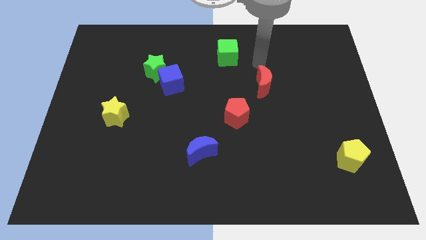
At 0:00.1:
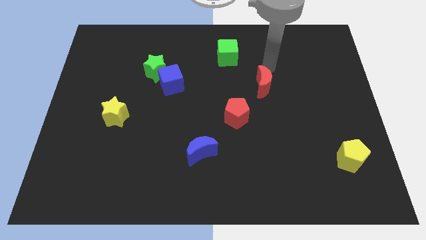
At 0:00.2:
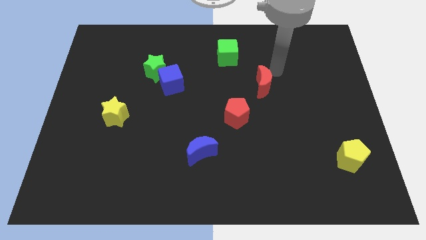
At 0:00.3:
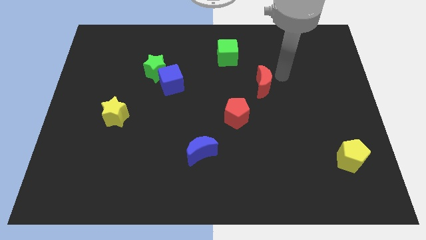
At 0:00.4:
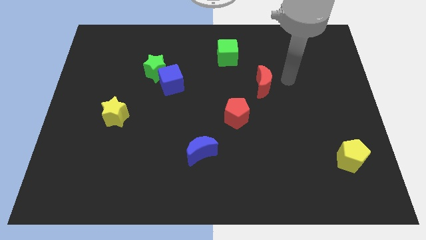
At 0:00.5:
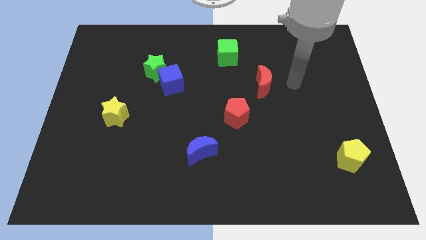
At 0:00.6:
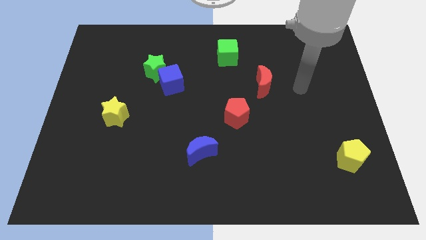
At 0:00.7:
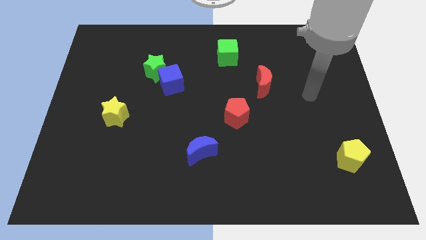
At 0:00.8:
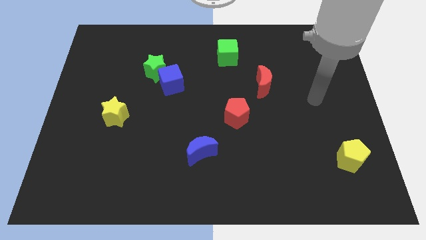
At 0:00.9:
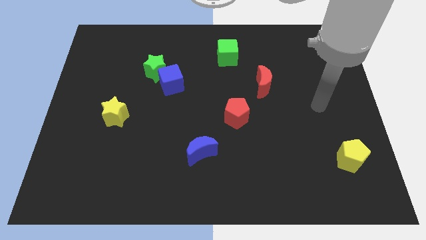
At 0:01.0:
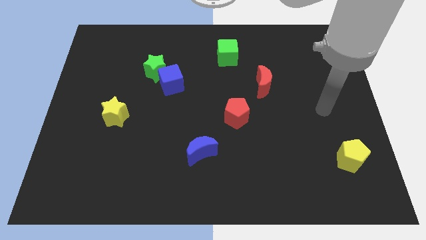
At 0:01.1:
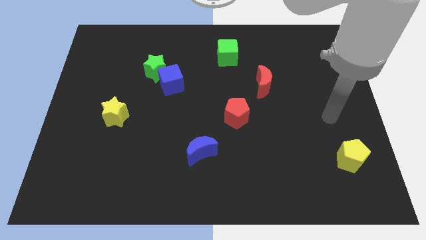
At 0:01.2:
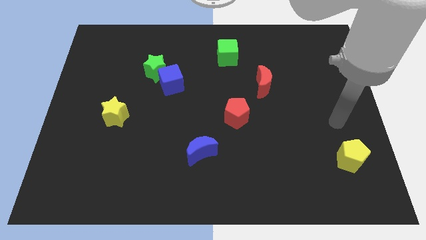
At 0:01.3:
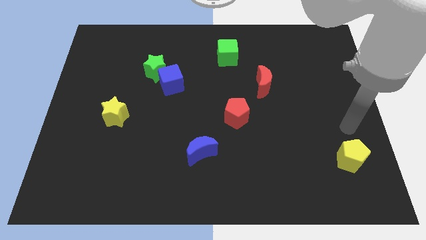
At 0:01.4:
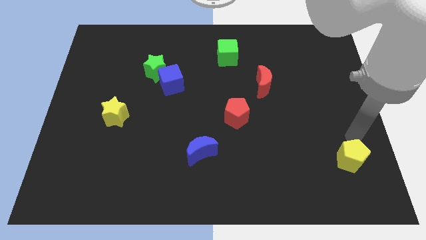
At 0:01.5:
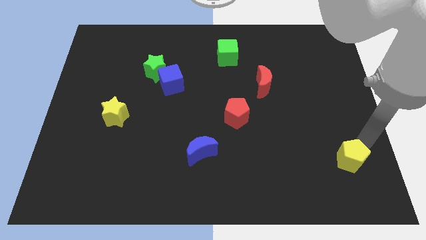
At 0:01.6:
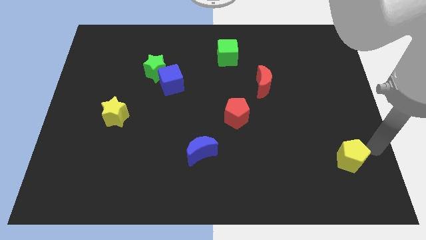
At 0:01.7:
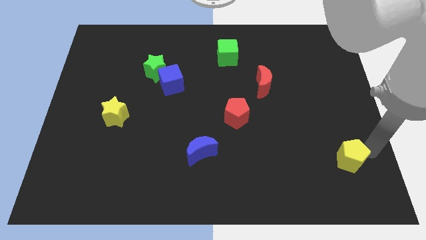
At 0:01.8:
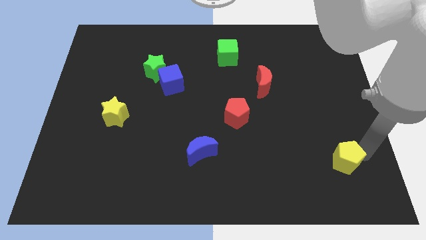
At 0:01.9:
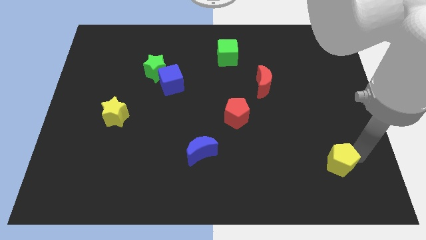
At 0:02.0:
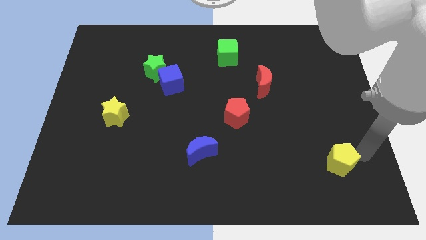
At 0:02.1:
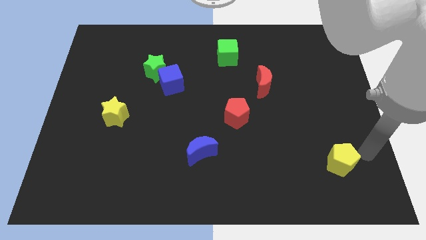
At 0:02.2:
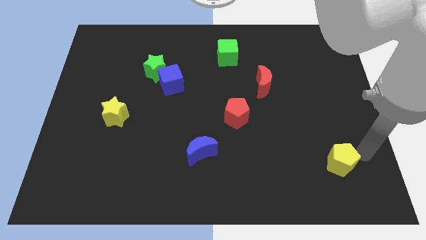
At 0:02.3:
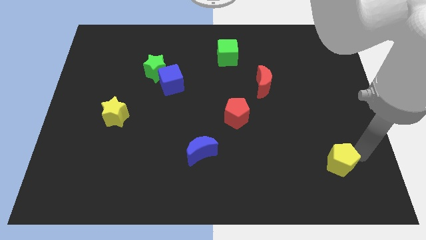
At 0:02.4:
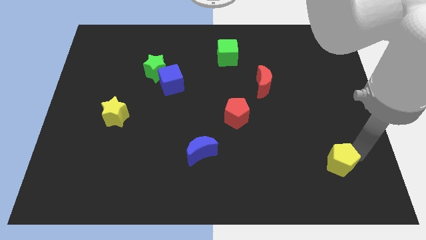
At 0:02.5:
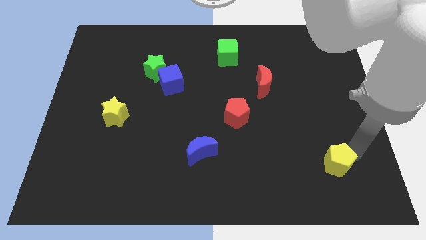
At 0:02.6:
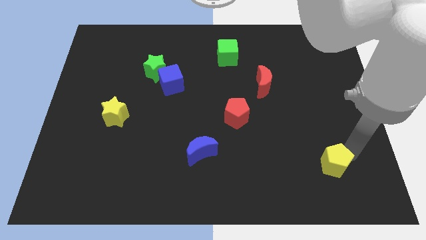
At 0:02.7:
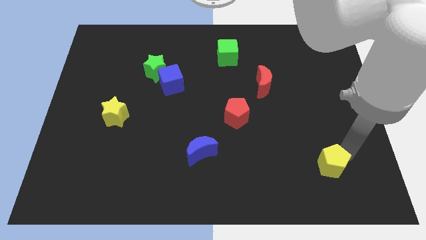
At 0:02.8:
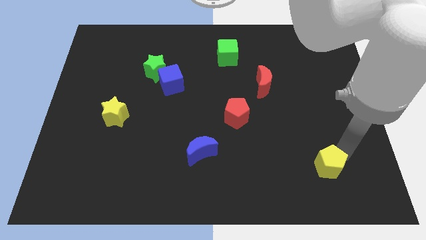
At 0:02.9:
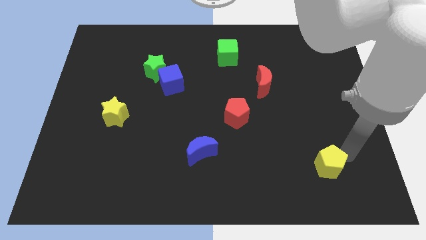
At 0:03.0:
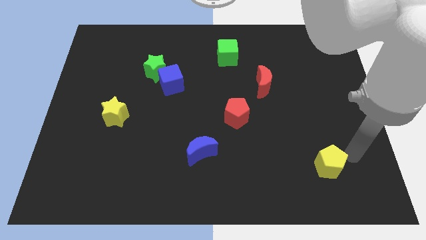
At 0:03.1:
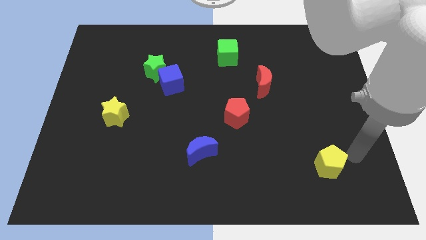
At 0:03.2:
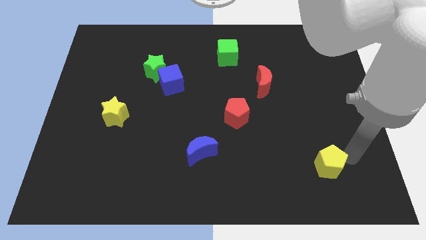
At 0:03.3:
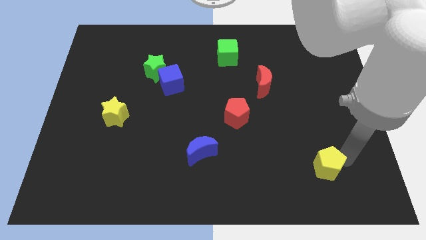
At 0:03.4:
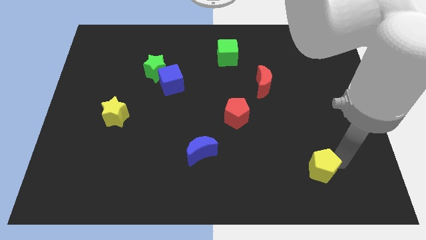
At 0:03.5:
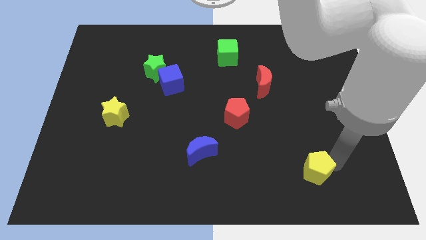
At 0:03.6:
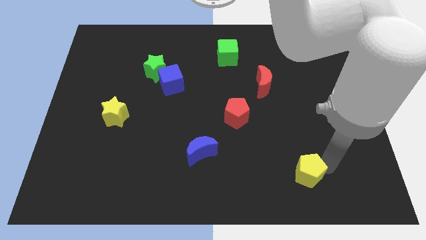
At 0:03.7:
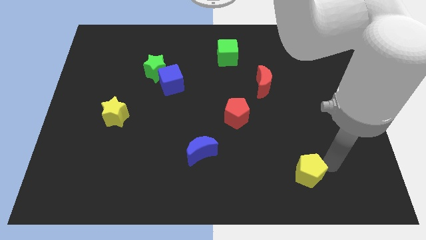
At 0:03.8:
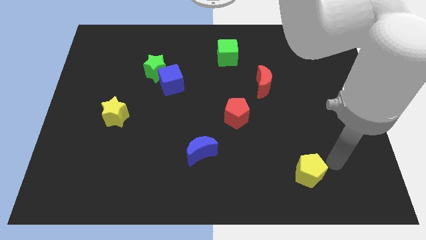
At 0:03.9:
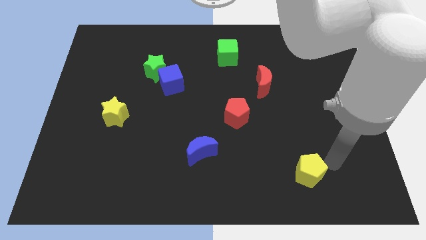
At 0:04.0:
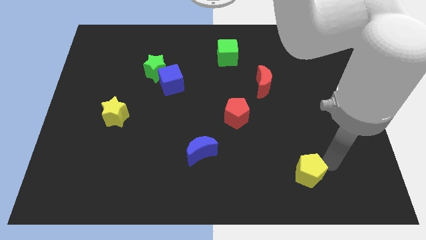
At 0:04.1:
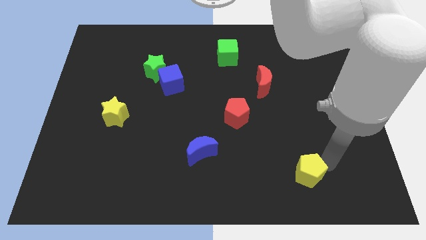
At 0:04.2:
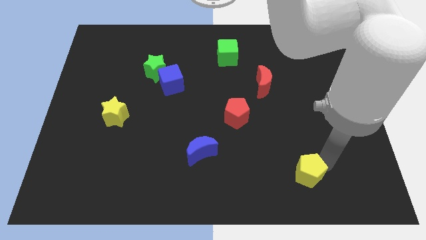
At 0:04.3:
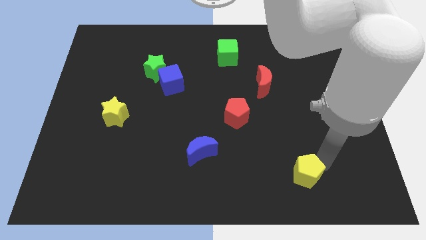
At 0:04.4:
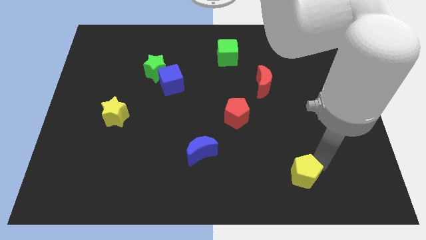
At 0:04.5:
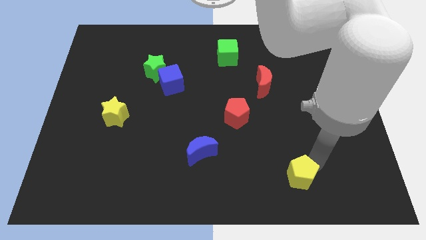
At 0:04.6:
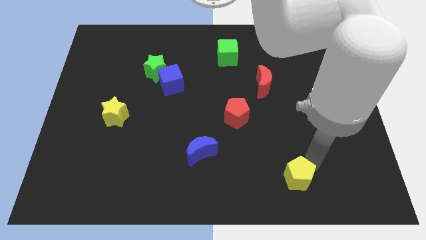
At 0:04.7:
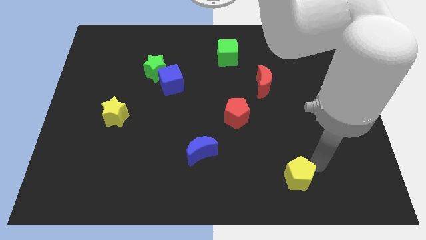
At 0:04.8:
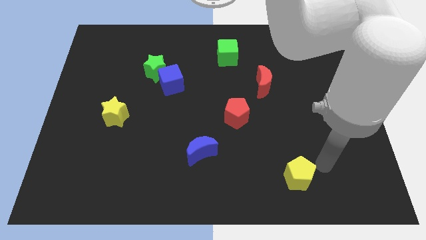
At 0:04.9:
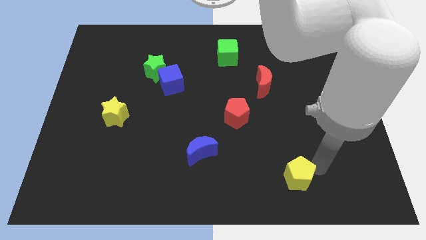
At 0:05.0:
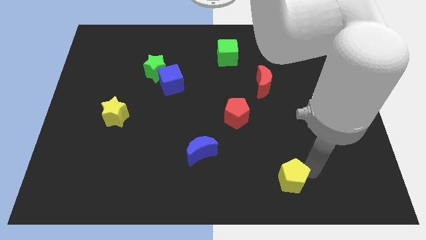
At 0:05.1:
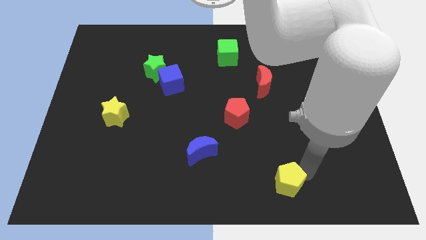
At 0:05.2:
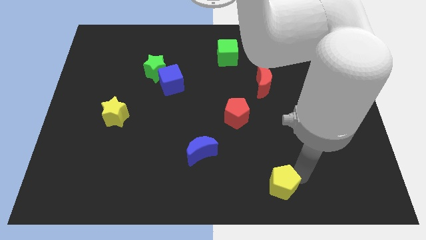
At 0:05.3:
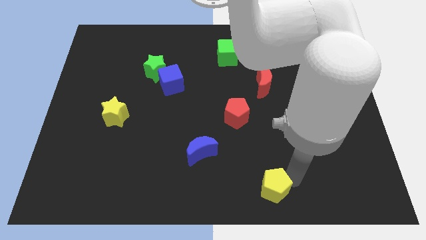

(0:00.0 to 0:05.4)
slide the yellow pentagon to the bottom side
